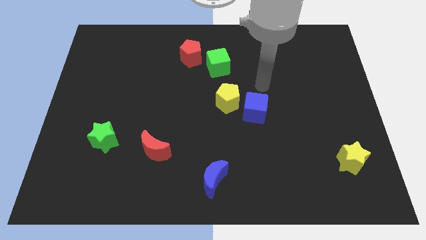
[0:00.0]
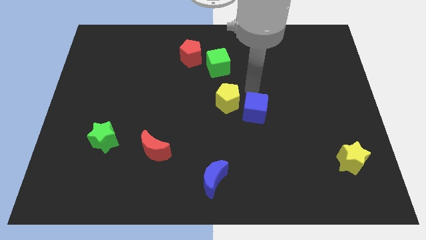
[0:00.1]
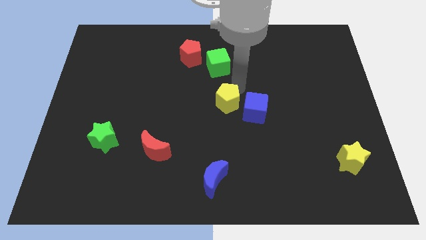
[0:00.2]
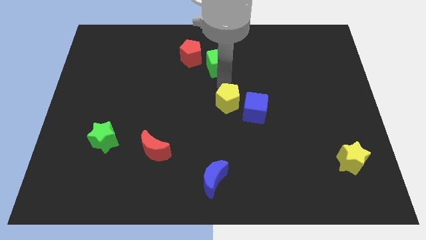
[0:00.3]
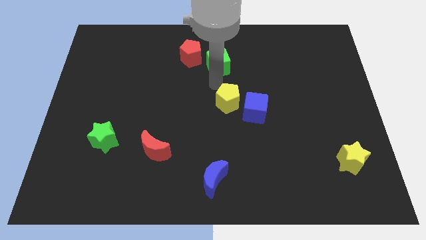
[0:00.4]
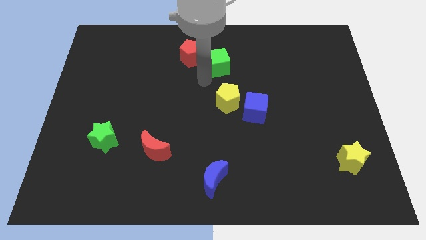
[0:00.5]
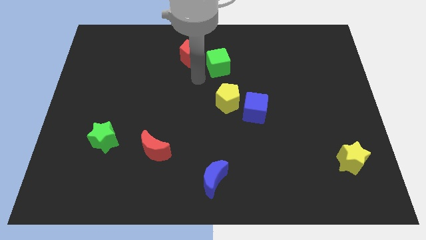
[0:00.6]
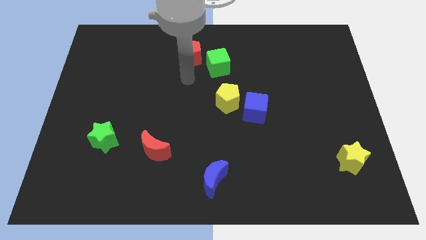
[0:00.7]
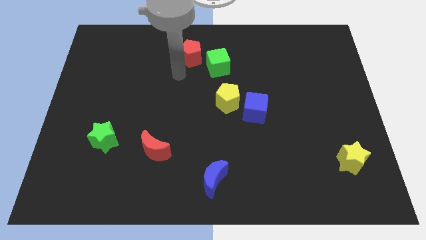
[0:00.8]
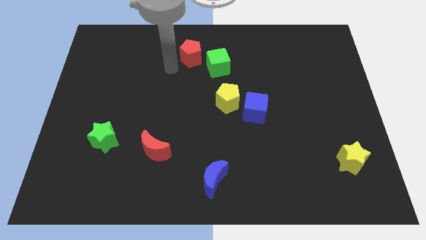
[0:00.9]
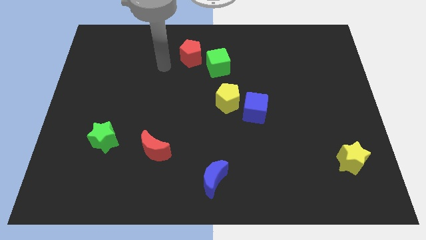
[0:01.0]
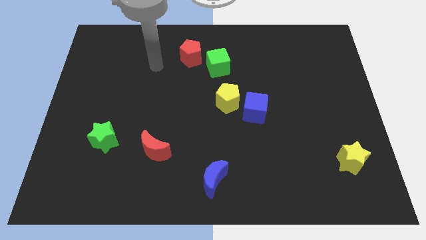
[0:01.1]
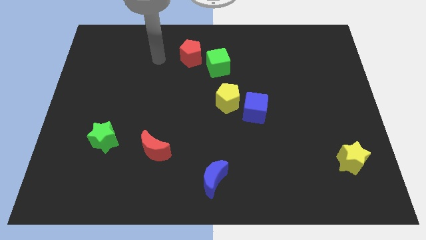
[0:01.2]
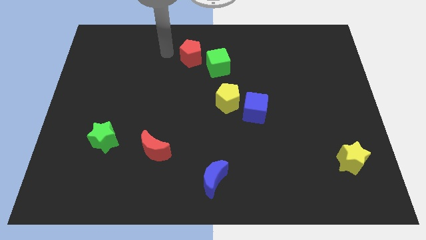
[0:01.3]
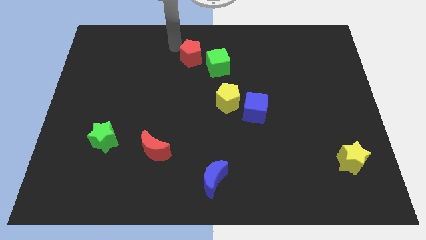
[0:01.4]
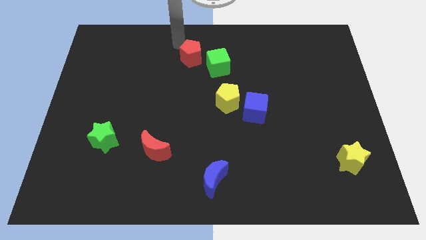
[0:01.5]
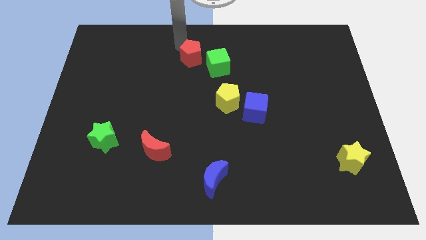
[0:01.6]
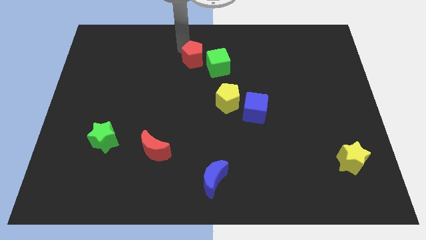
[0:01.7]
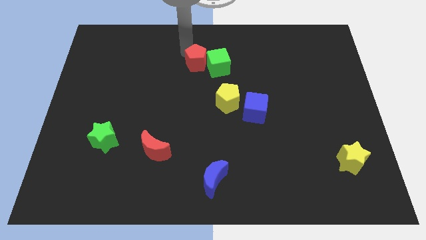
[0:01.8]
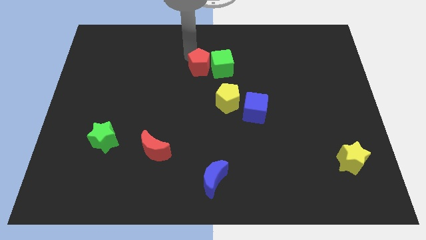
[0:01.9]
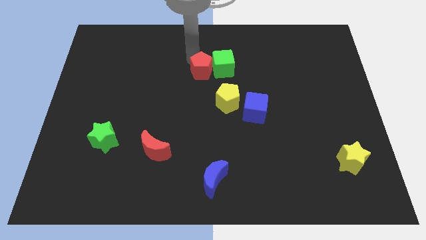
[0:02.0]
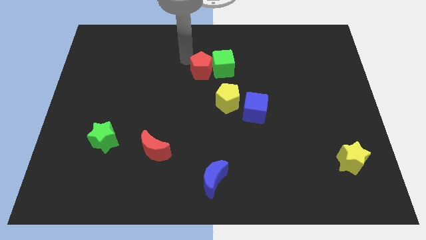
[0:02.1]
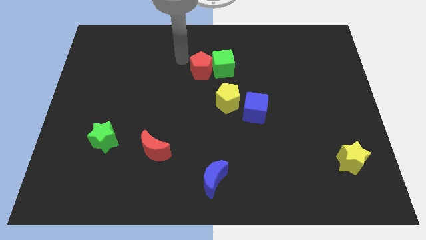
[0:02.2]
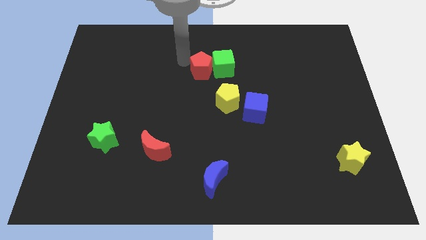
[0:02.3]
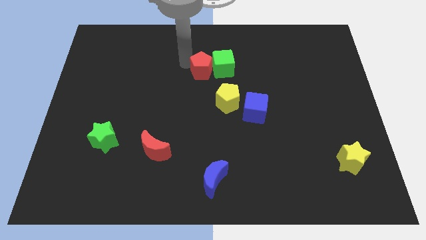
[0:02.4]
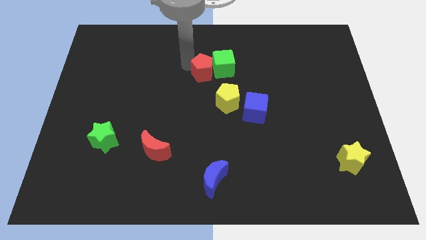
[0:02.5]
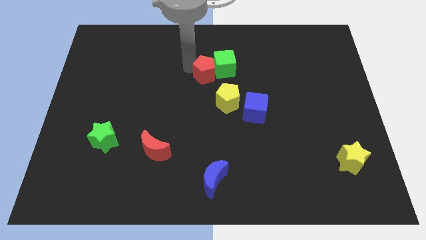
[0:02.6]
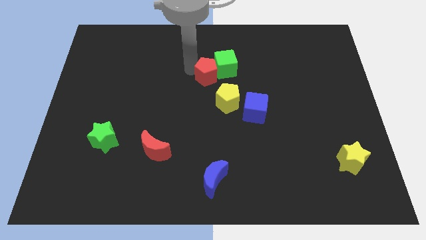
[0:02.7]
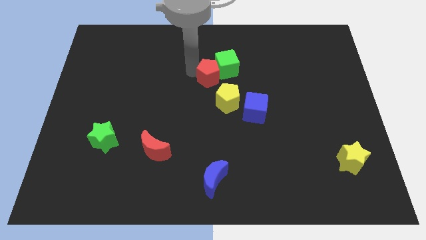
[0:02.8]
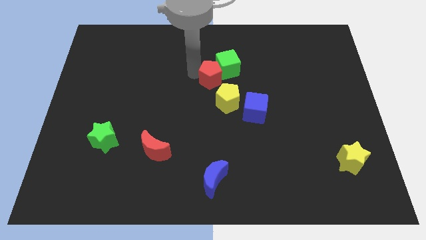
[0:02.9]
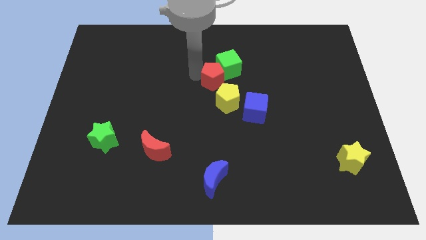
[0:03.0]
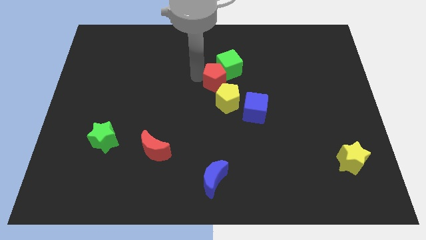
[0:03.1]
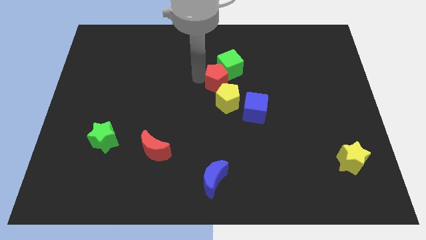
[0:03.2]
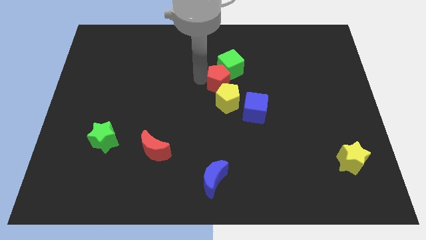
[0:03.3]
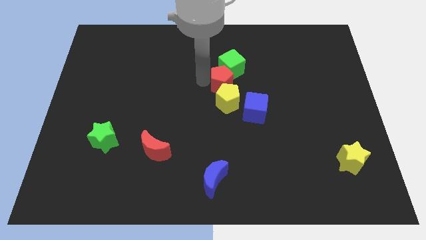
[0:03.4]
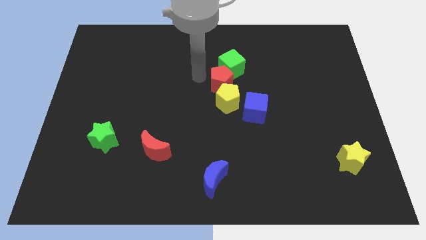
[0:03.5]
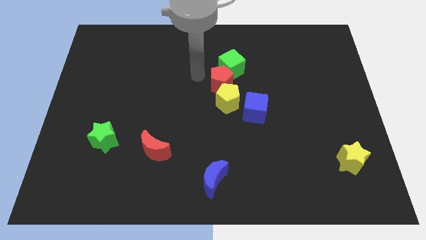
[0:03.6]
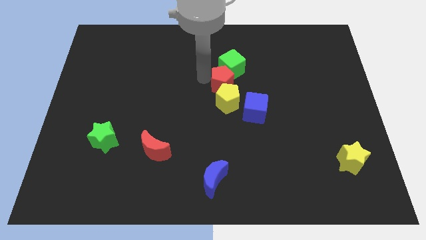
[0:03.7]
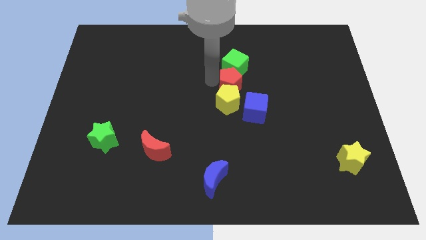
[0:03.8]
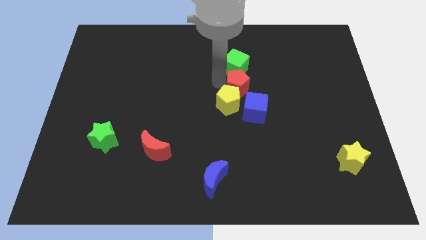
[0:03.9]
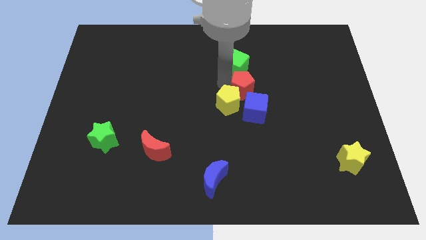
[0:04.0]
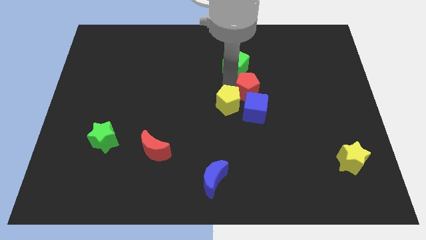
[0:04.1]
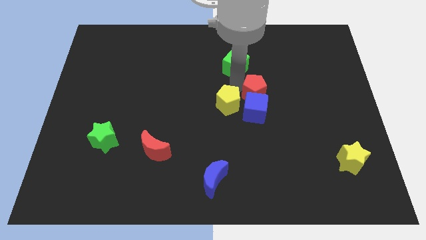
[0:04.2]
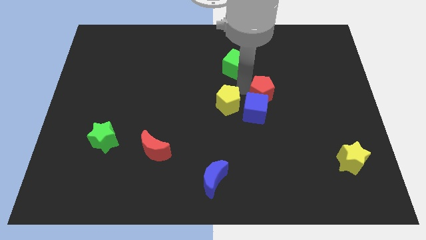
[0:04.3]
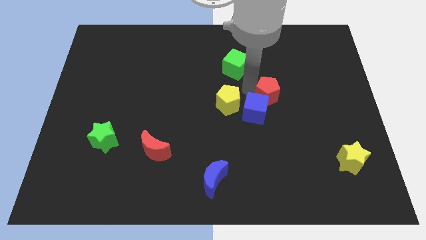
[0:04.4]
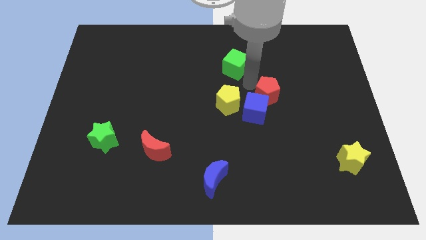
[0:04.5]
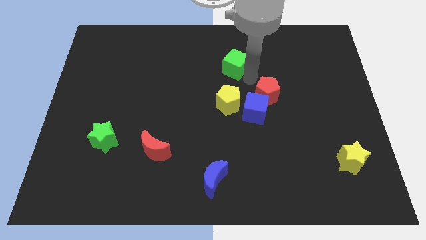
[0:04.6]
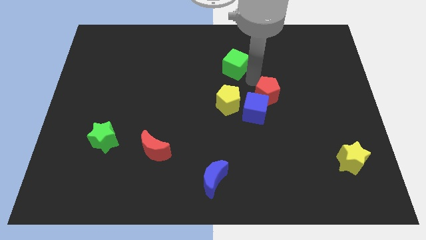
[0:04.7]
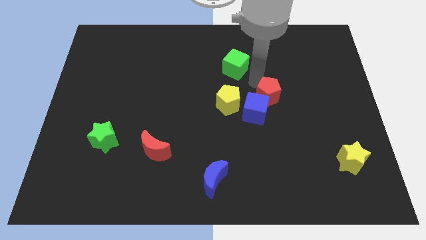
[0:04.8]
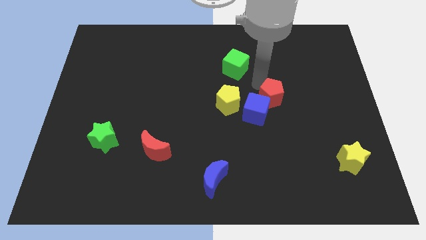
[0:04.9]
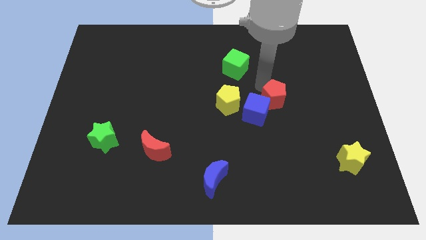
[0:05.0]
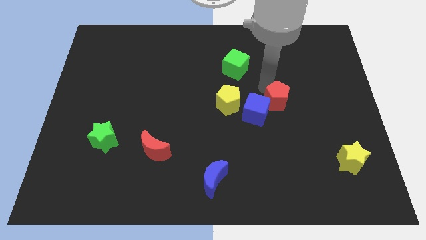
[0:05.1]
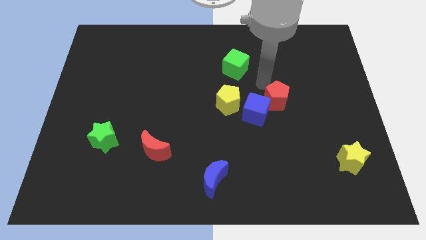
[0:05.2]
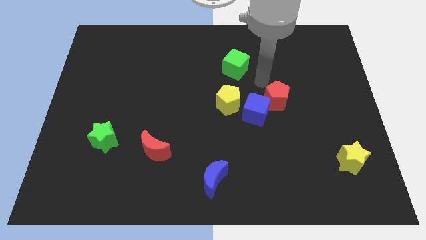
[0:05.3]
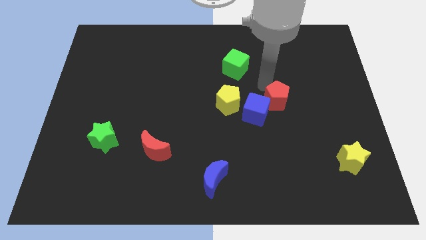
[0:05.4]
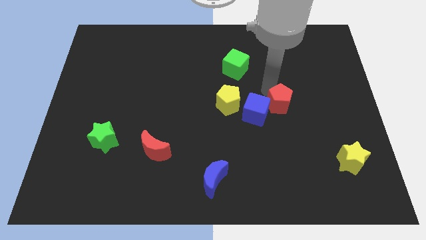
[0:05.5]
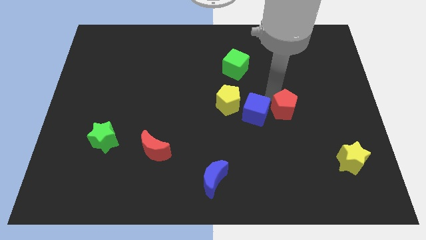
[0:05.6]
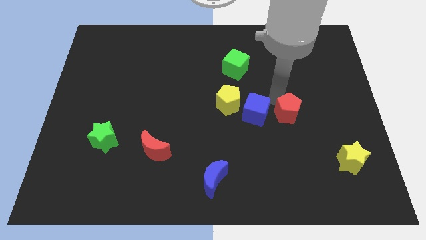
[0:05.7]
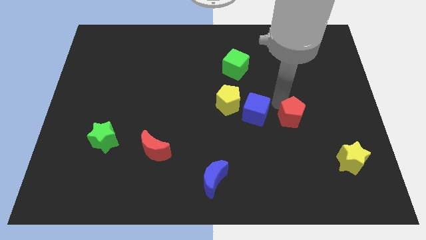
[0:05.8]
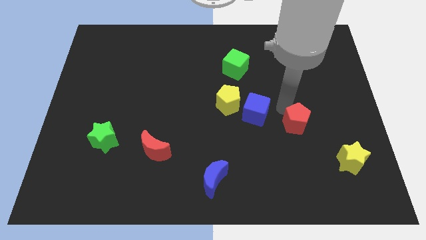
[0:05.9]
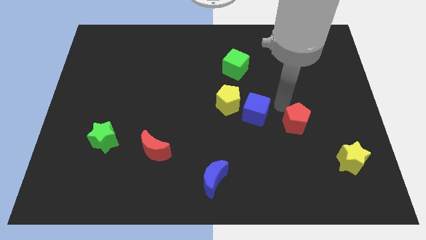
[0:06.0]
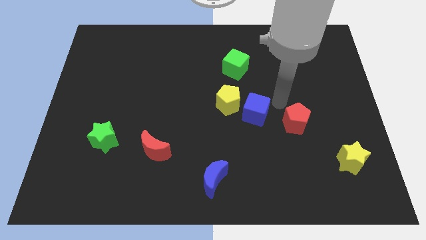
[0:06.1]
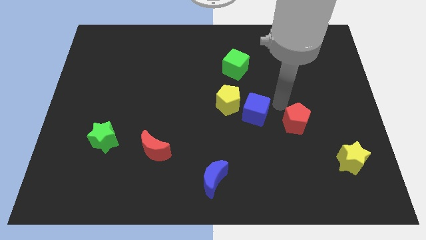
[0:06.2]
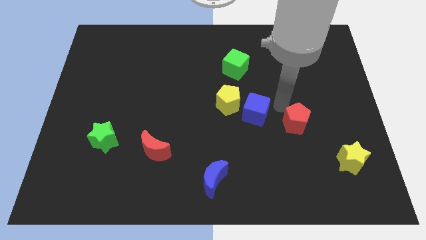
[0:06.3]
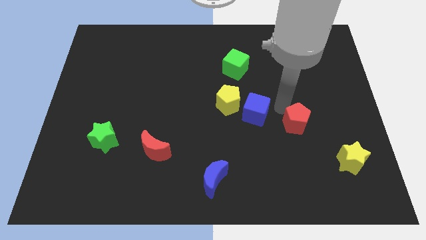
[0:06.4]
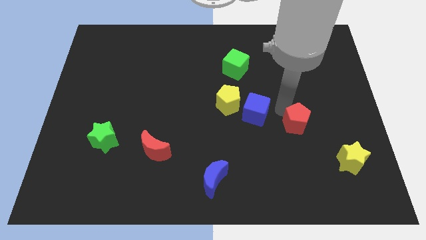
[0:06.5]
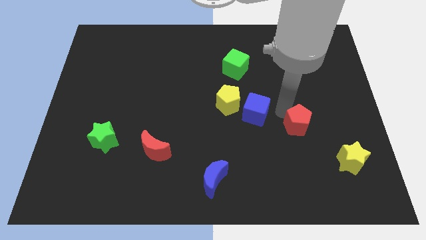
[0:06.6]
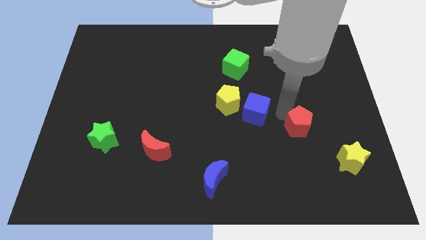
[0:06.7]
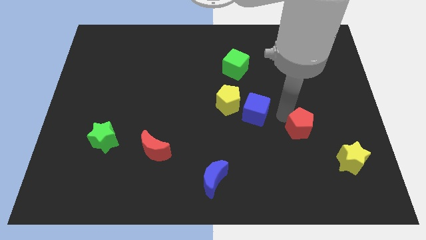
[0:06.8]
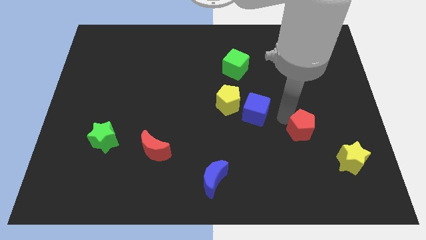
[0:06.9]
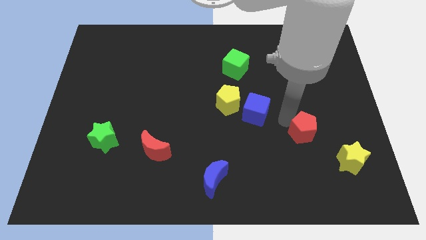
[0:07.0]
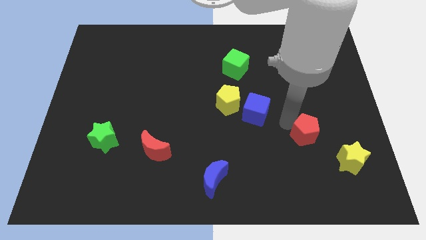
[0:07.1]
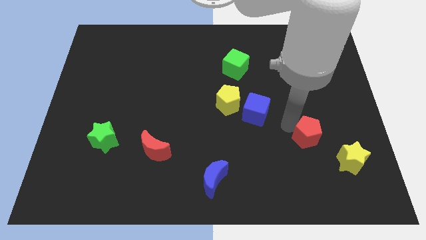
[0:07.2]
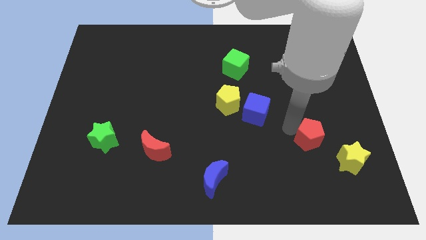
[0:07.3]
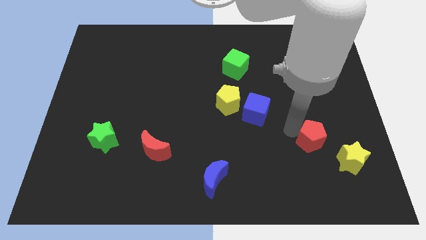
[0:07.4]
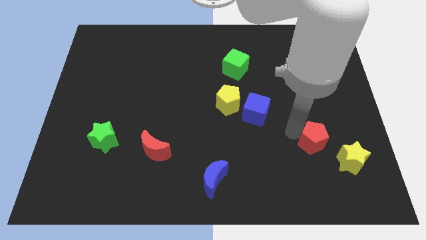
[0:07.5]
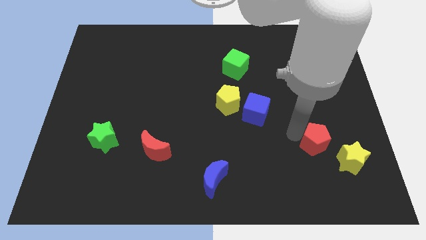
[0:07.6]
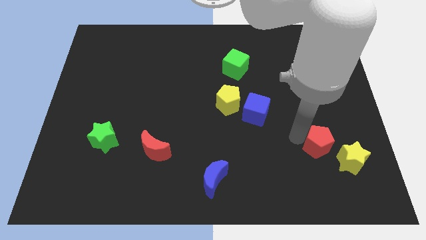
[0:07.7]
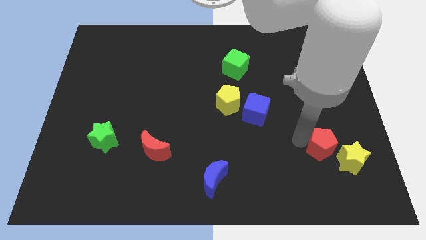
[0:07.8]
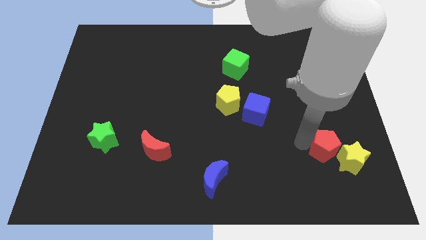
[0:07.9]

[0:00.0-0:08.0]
move the red pentagon close to the yellow star
